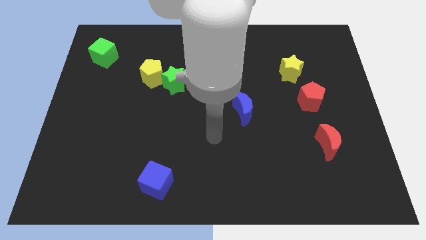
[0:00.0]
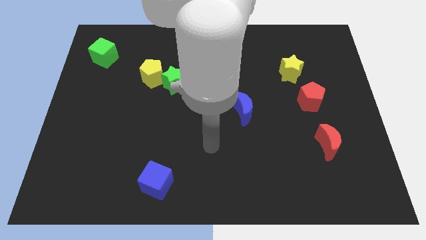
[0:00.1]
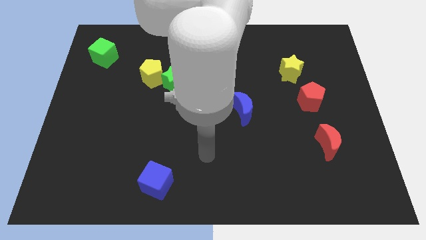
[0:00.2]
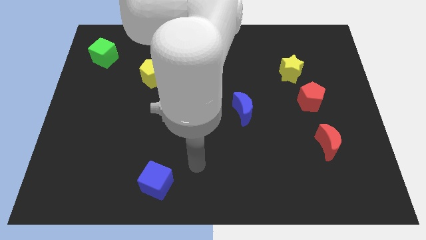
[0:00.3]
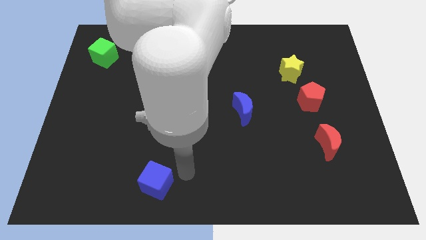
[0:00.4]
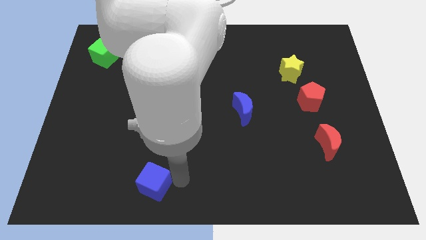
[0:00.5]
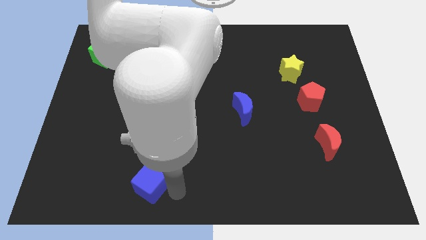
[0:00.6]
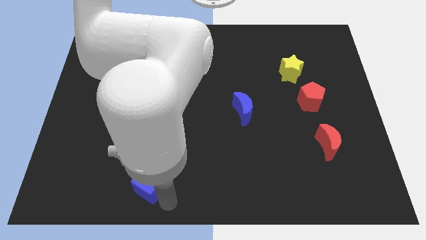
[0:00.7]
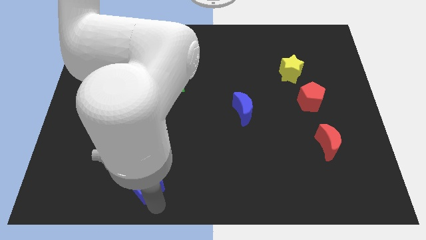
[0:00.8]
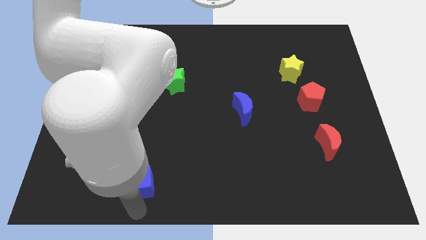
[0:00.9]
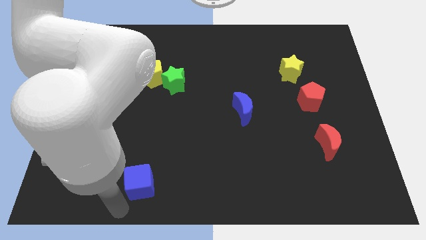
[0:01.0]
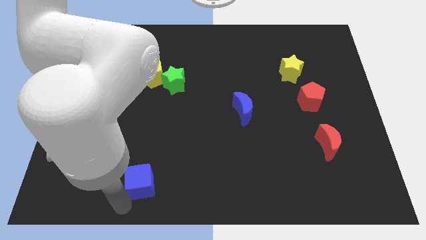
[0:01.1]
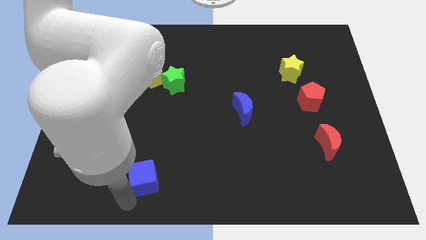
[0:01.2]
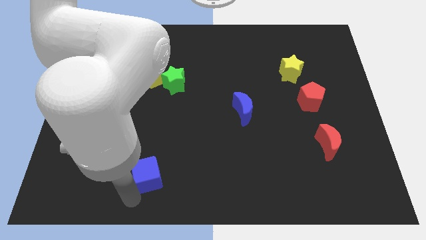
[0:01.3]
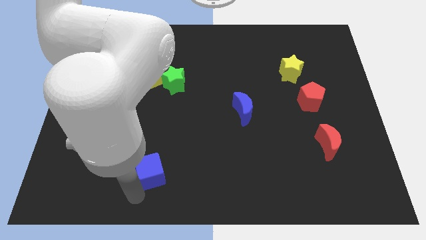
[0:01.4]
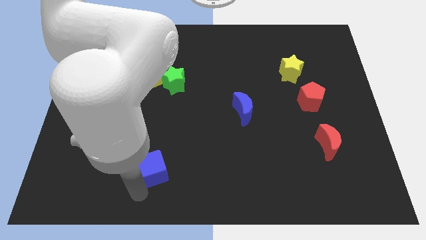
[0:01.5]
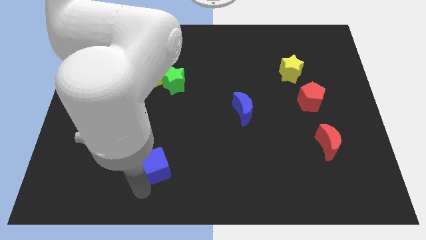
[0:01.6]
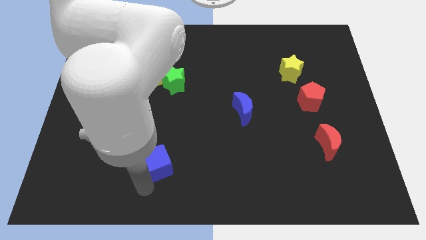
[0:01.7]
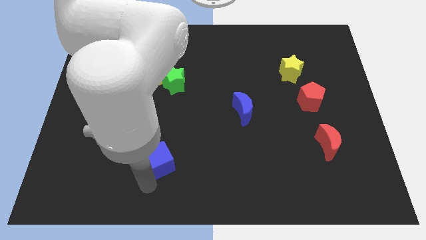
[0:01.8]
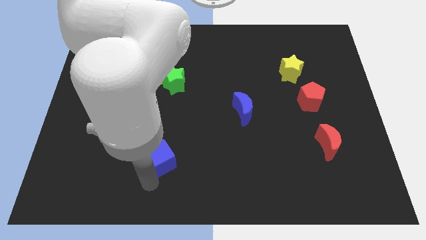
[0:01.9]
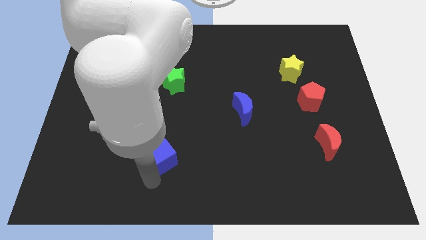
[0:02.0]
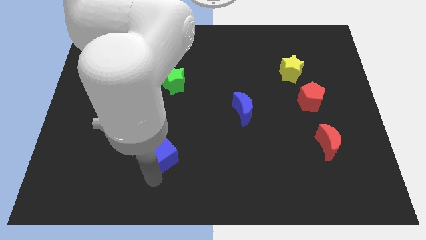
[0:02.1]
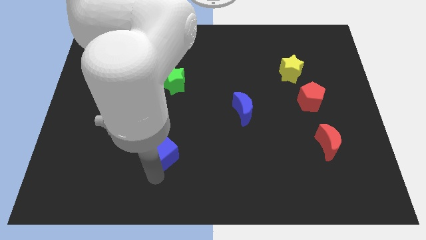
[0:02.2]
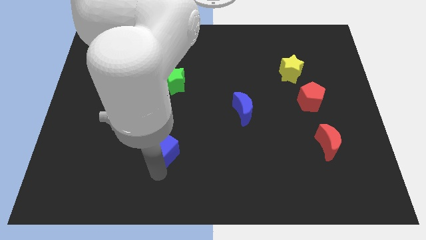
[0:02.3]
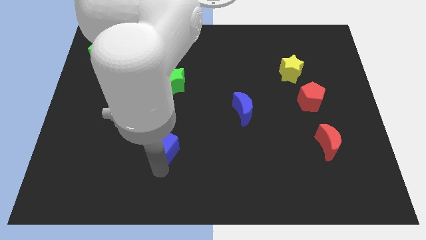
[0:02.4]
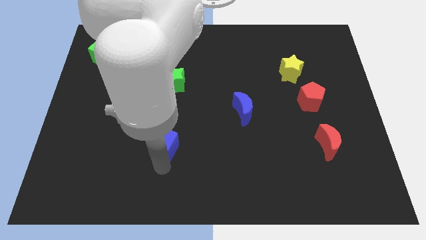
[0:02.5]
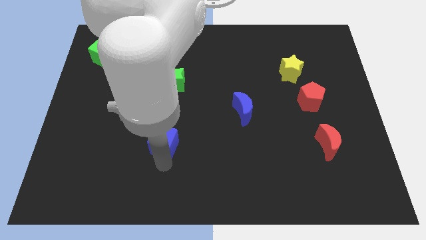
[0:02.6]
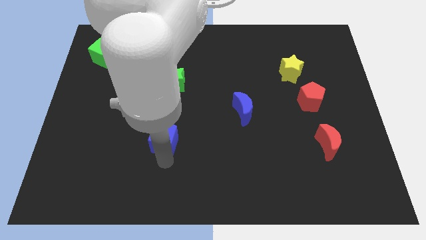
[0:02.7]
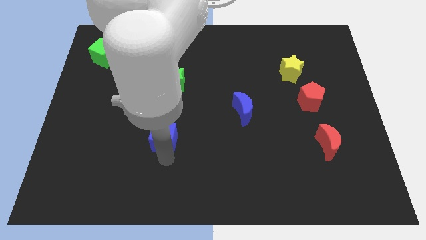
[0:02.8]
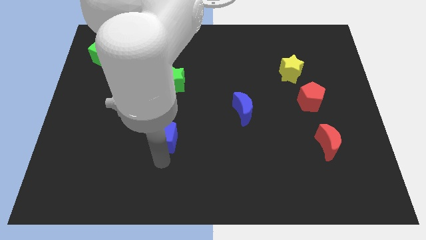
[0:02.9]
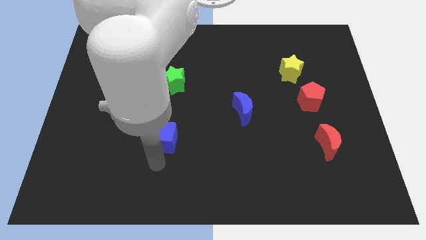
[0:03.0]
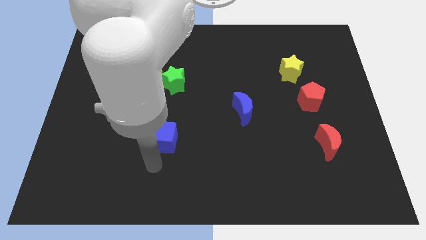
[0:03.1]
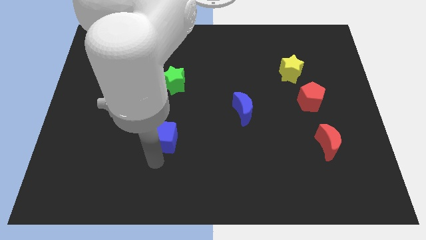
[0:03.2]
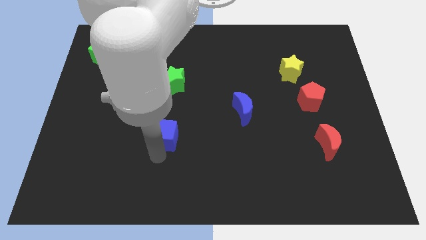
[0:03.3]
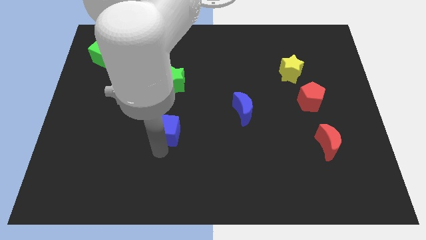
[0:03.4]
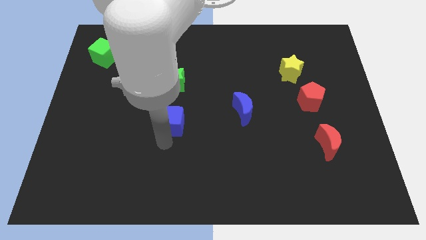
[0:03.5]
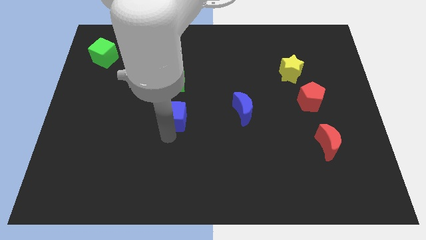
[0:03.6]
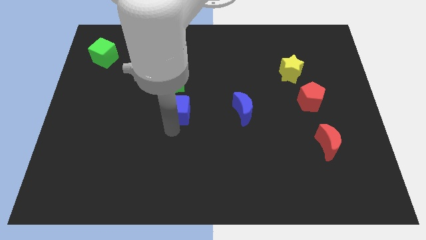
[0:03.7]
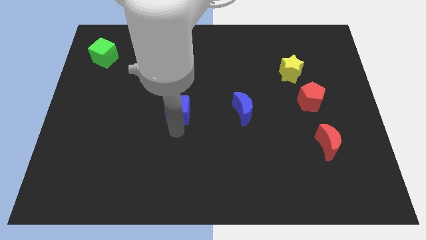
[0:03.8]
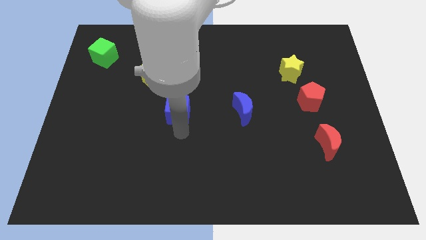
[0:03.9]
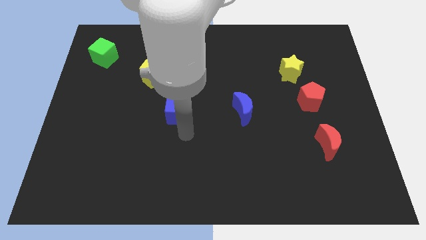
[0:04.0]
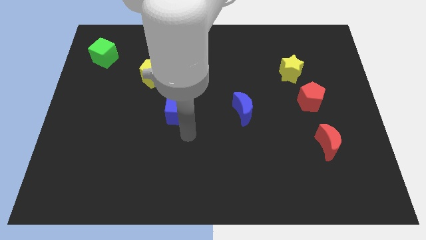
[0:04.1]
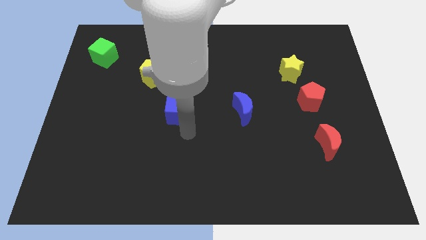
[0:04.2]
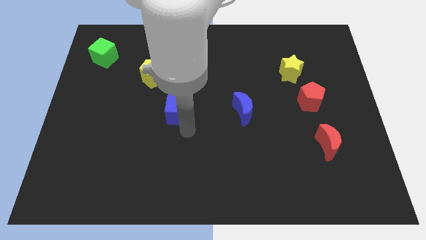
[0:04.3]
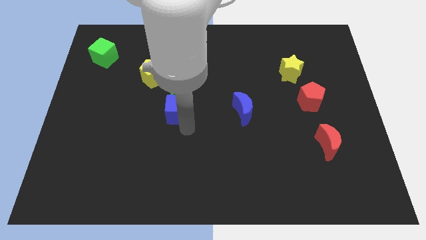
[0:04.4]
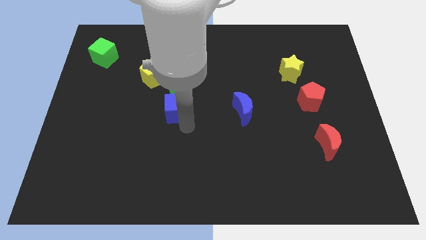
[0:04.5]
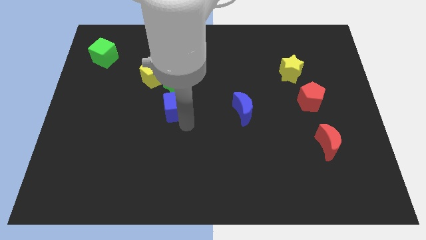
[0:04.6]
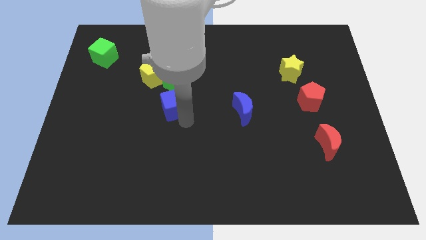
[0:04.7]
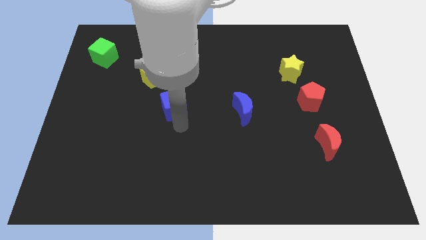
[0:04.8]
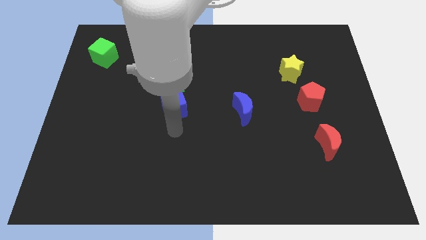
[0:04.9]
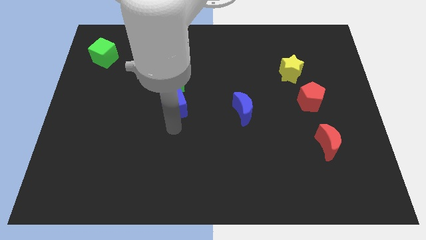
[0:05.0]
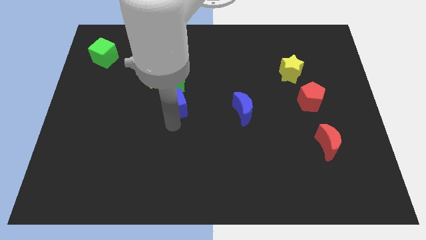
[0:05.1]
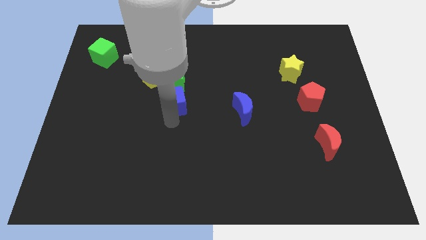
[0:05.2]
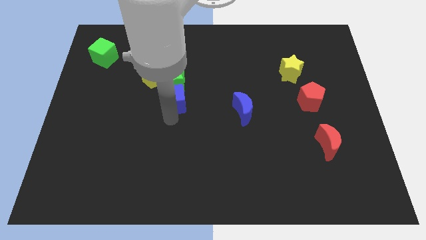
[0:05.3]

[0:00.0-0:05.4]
slide the blue cube close to the green star

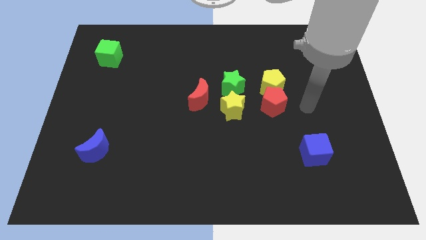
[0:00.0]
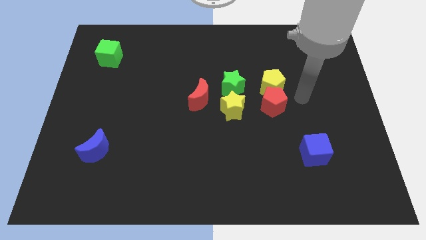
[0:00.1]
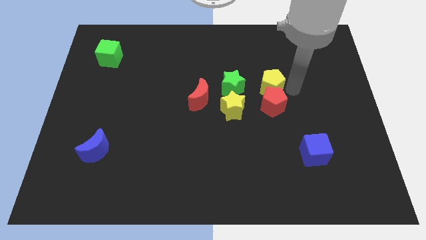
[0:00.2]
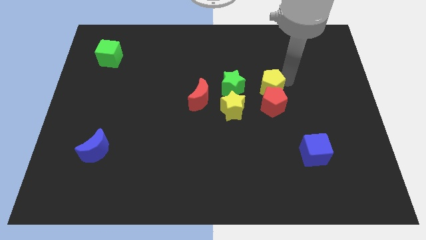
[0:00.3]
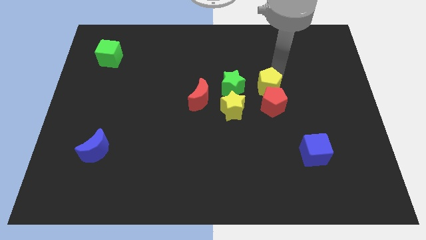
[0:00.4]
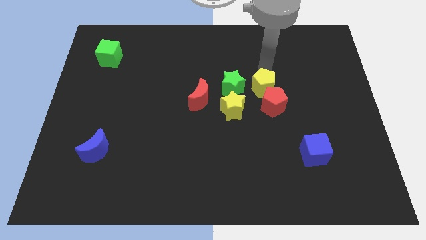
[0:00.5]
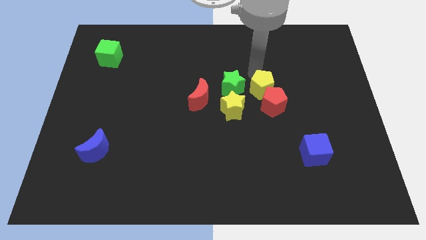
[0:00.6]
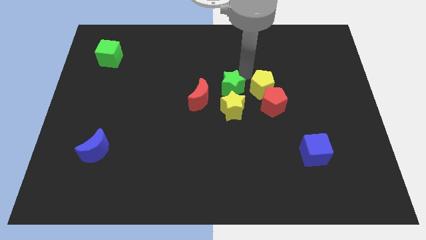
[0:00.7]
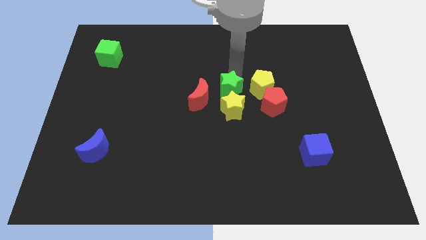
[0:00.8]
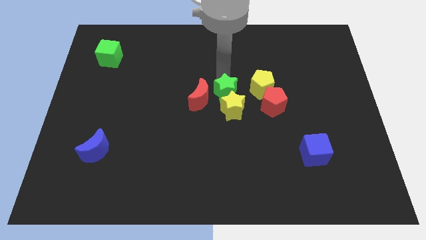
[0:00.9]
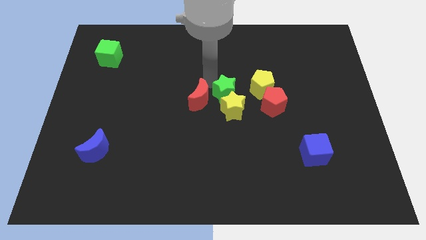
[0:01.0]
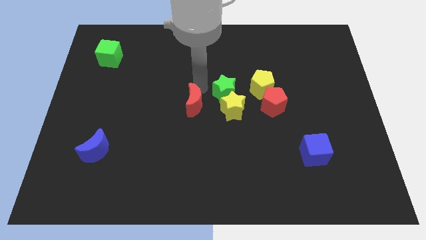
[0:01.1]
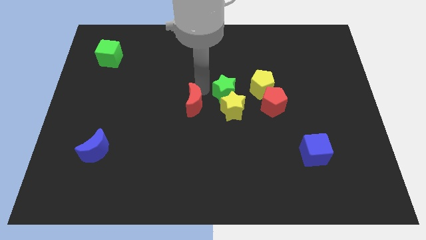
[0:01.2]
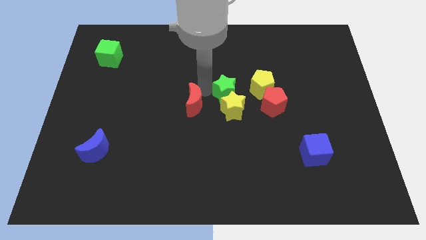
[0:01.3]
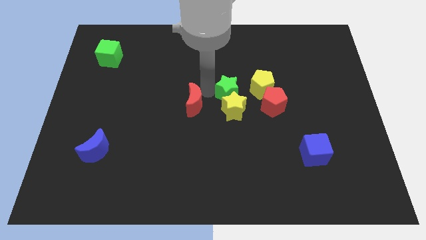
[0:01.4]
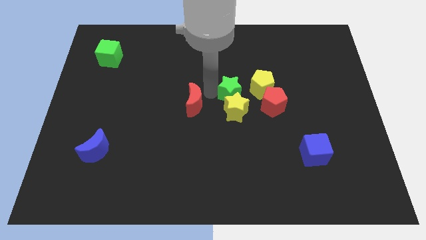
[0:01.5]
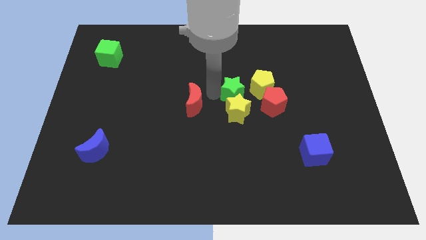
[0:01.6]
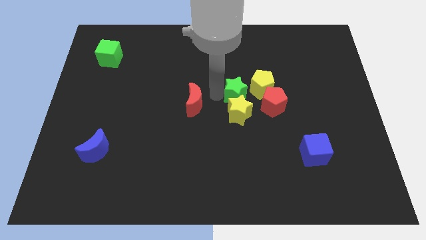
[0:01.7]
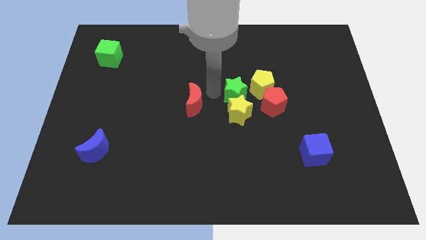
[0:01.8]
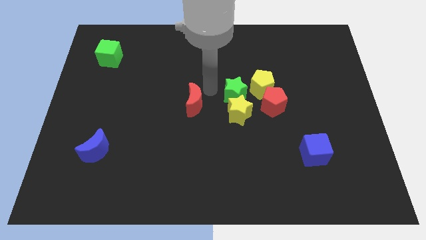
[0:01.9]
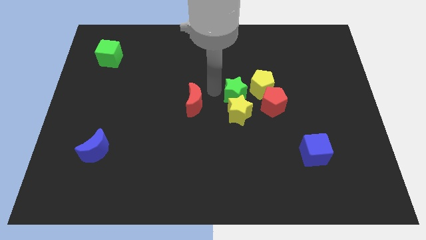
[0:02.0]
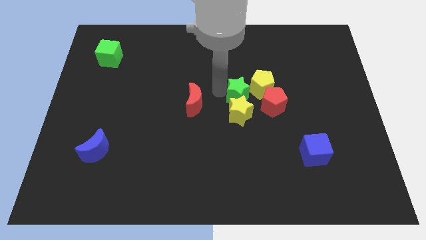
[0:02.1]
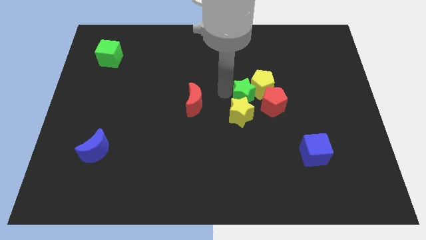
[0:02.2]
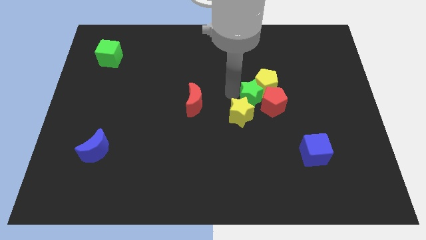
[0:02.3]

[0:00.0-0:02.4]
put the green star towards the red pentagon
